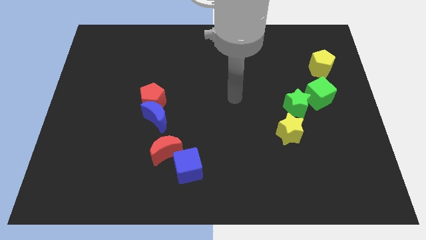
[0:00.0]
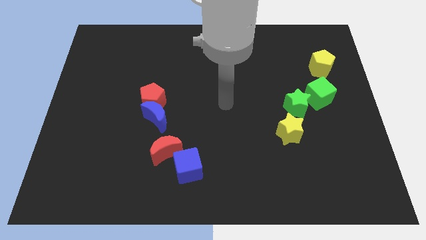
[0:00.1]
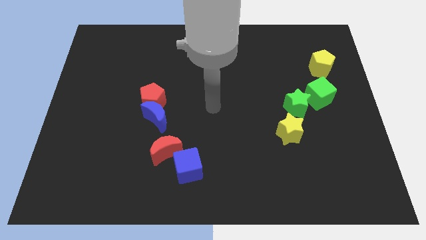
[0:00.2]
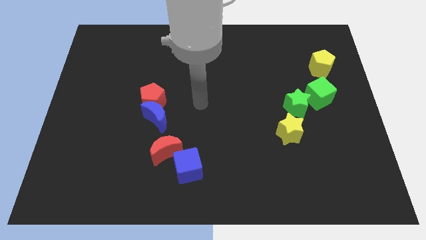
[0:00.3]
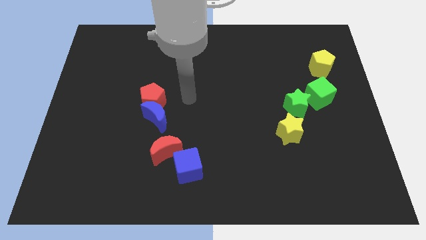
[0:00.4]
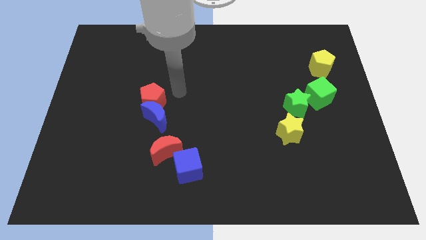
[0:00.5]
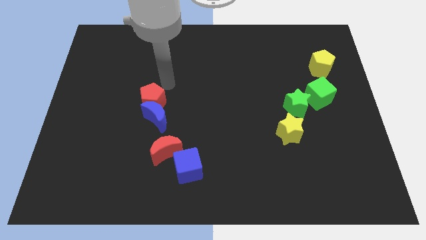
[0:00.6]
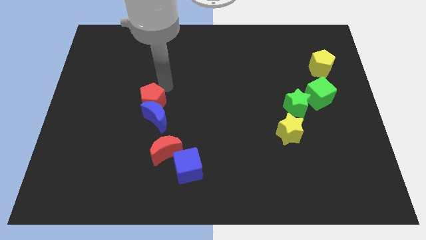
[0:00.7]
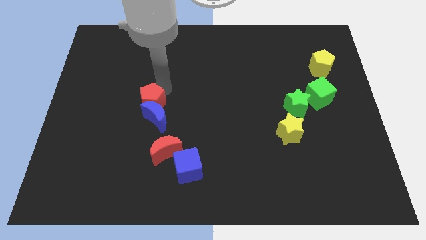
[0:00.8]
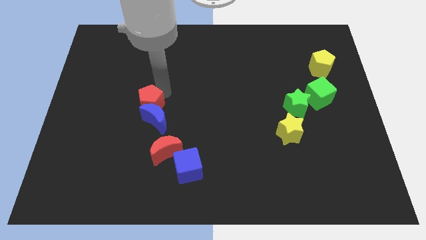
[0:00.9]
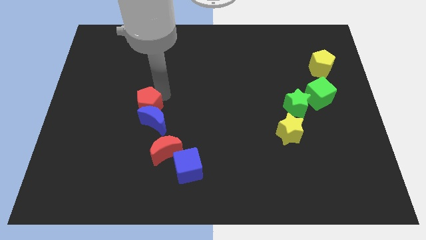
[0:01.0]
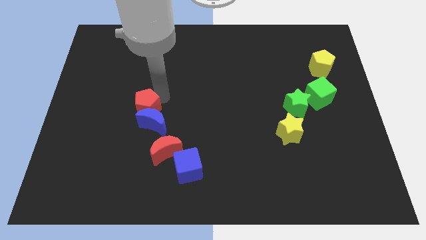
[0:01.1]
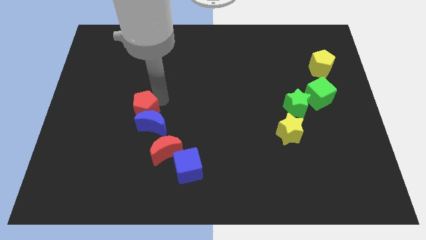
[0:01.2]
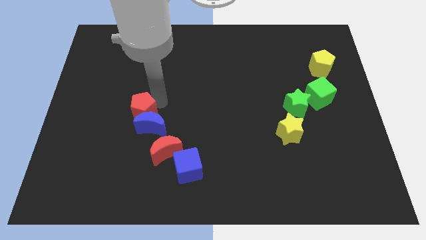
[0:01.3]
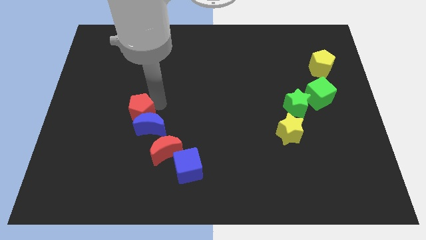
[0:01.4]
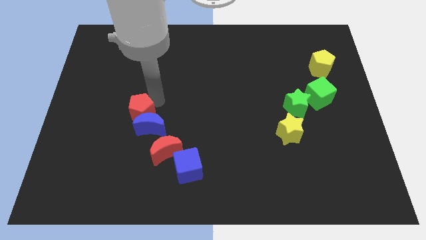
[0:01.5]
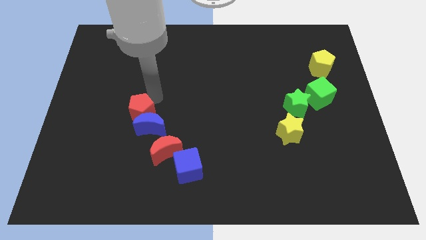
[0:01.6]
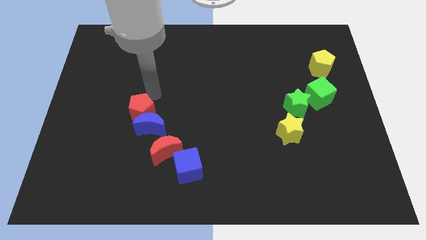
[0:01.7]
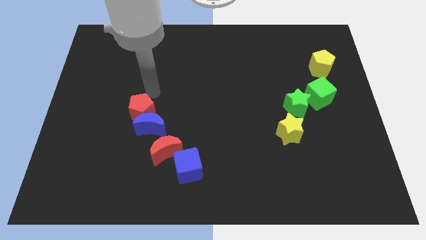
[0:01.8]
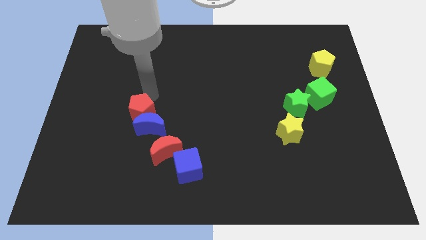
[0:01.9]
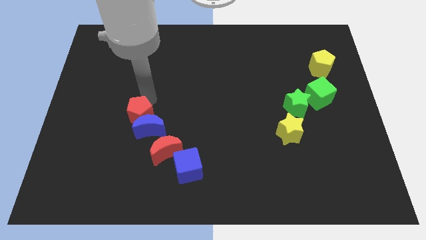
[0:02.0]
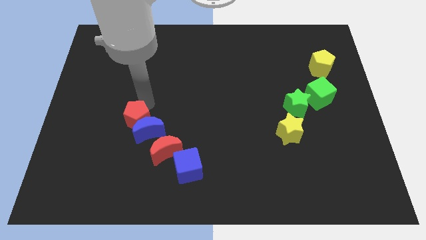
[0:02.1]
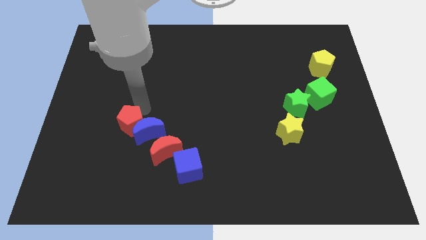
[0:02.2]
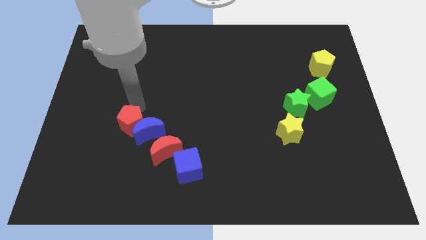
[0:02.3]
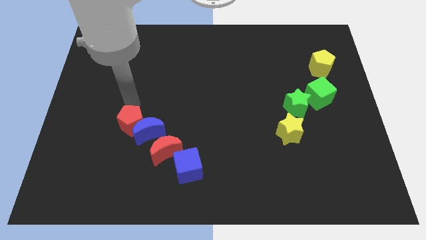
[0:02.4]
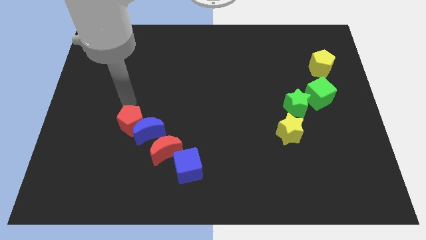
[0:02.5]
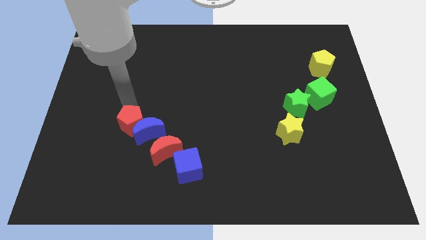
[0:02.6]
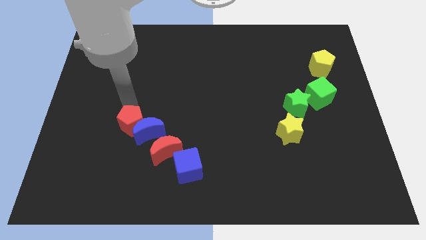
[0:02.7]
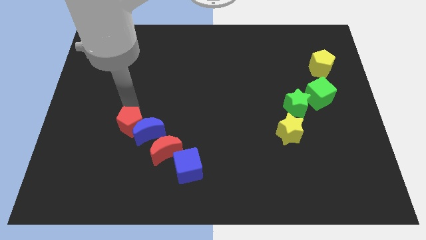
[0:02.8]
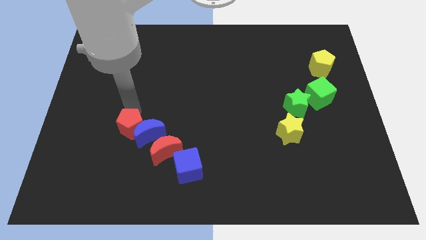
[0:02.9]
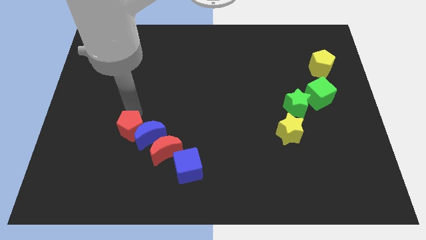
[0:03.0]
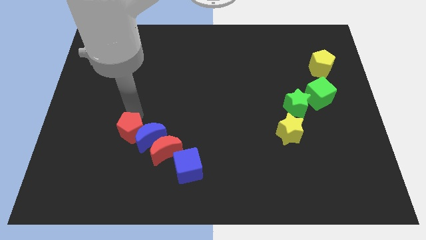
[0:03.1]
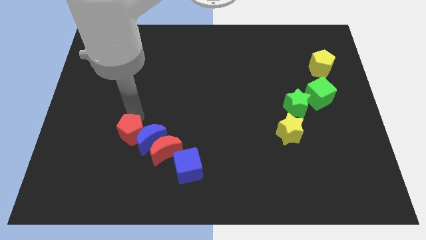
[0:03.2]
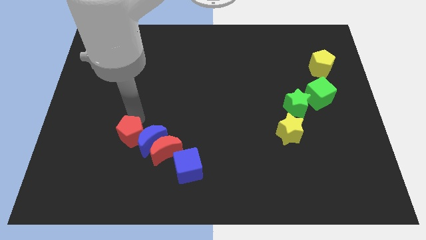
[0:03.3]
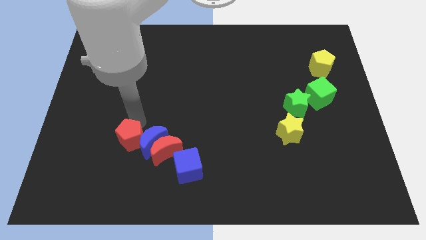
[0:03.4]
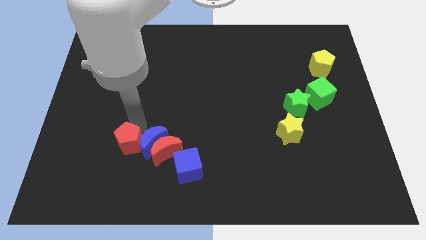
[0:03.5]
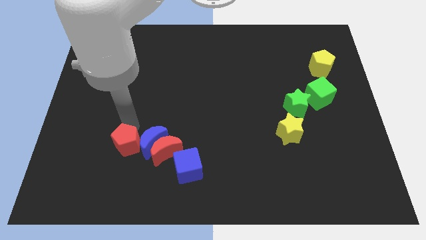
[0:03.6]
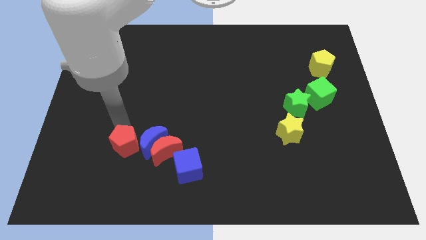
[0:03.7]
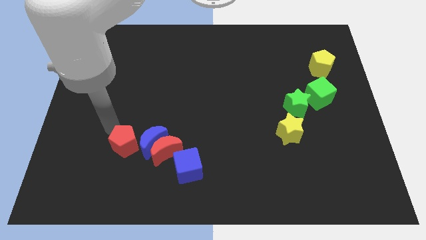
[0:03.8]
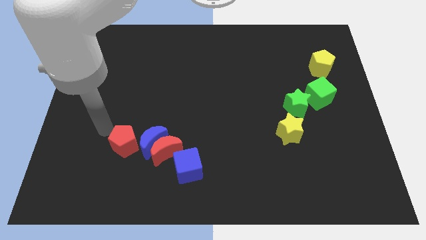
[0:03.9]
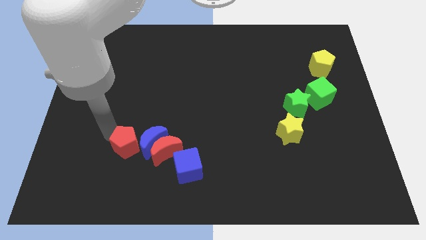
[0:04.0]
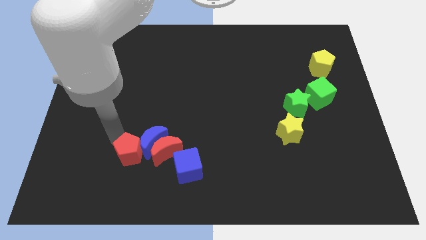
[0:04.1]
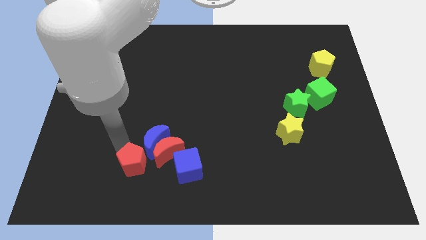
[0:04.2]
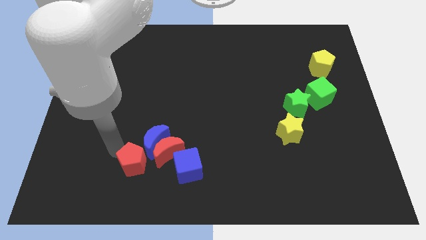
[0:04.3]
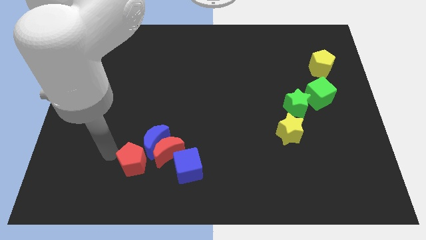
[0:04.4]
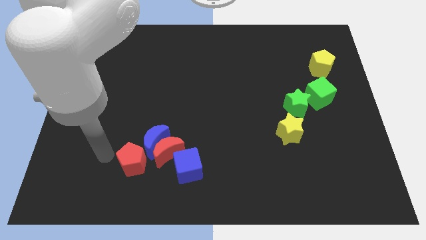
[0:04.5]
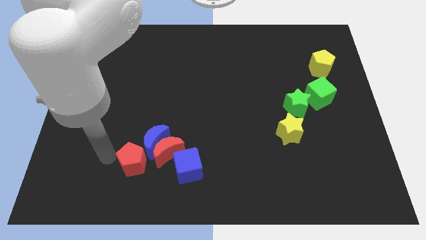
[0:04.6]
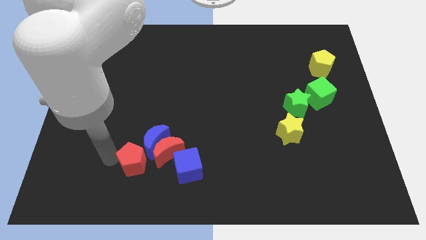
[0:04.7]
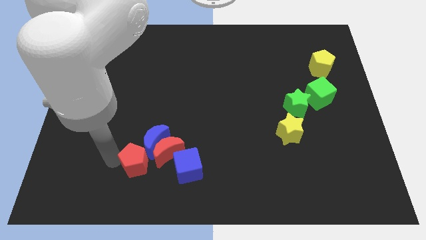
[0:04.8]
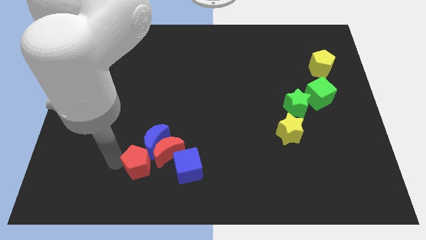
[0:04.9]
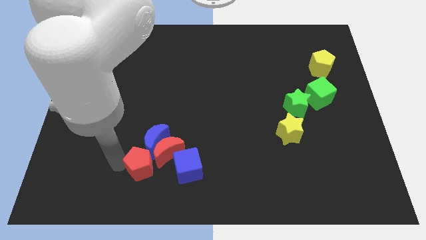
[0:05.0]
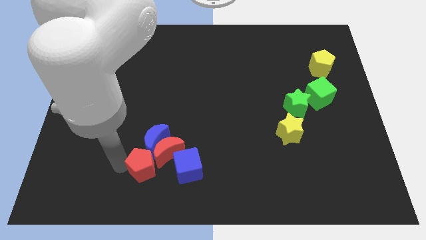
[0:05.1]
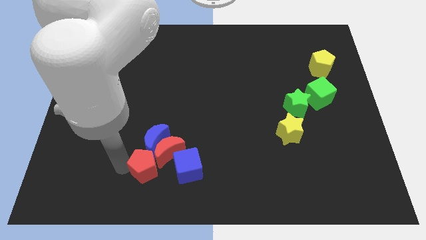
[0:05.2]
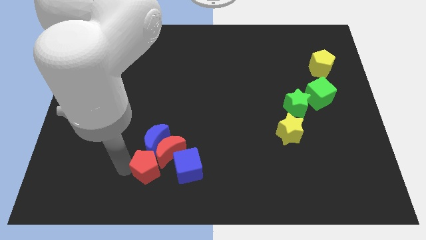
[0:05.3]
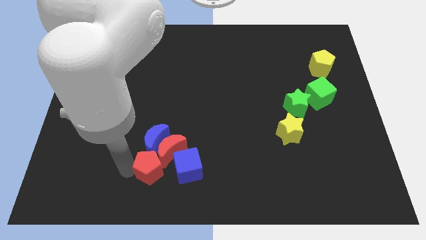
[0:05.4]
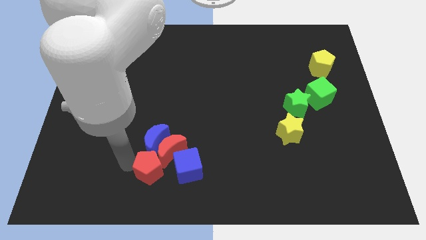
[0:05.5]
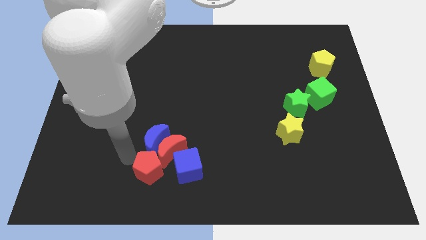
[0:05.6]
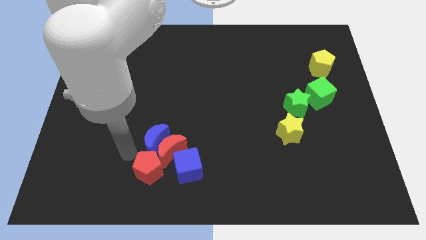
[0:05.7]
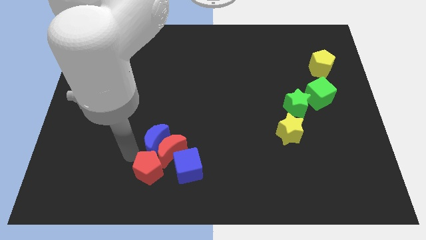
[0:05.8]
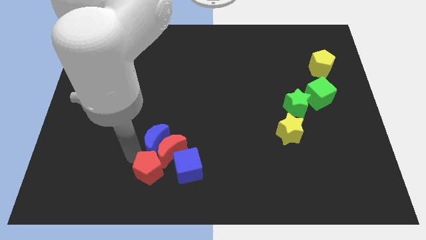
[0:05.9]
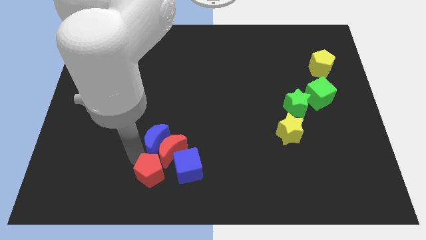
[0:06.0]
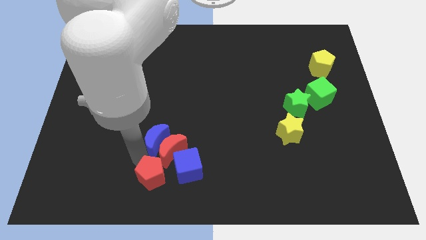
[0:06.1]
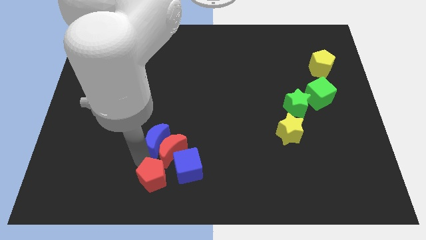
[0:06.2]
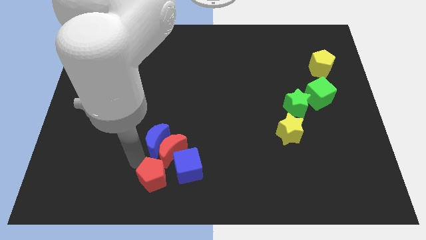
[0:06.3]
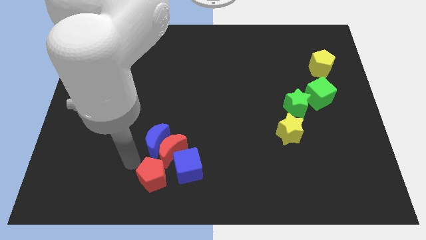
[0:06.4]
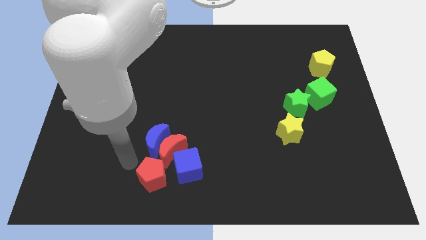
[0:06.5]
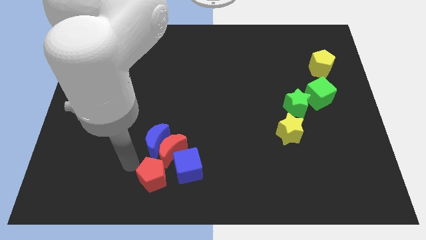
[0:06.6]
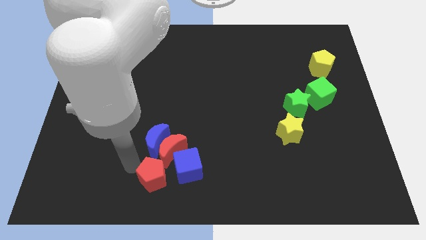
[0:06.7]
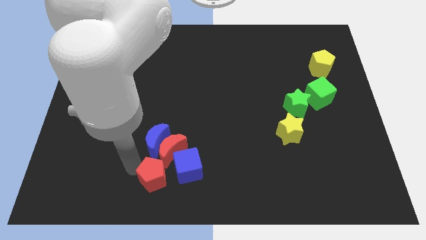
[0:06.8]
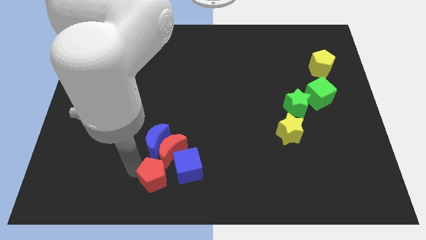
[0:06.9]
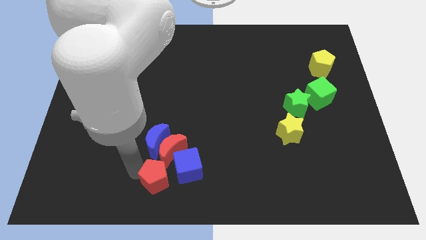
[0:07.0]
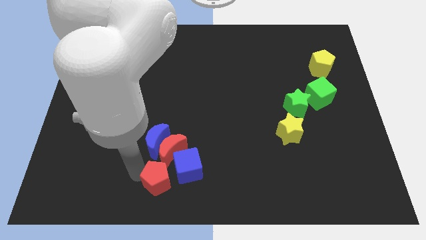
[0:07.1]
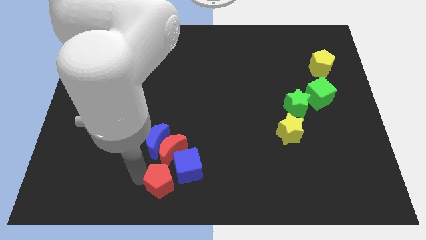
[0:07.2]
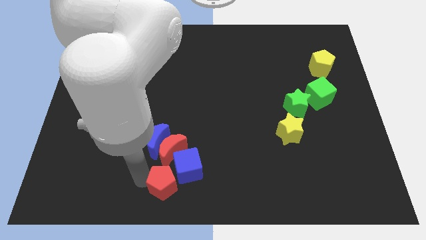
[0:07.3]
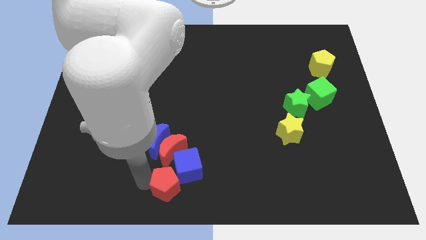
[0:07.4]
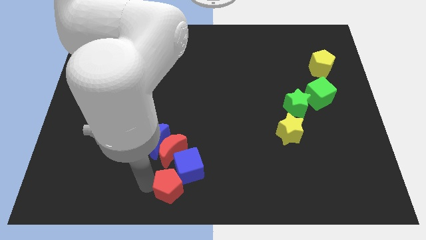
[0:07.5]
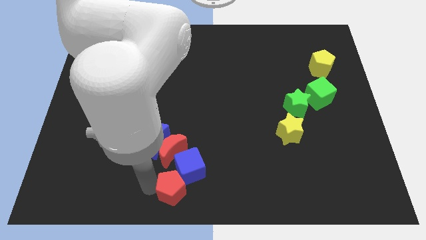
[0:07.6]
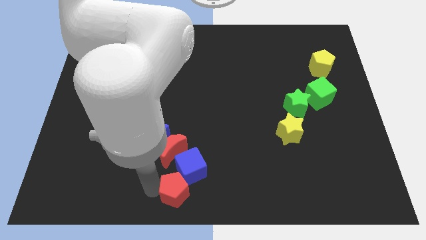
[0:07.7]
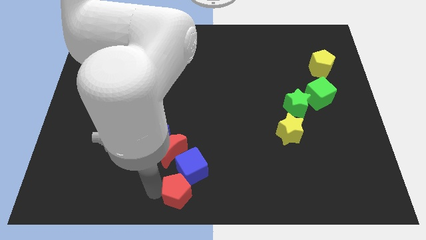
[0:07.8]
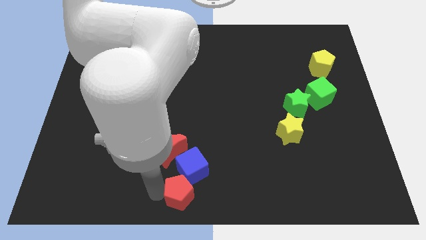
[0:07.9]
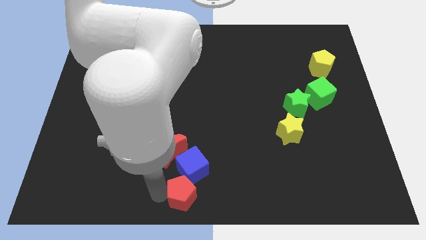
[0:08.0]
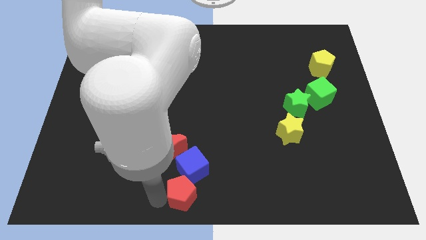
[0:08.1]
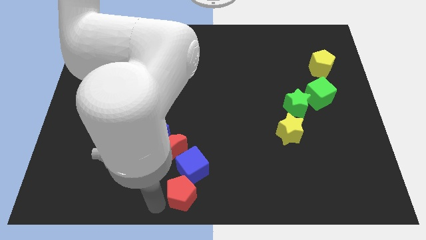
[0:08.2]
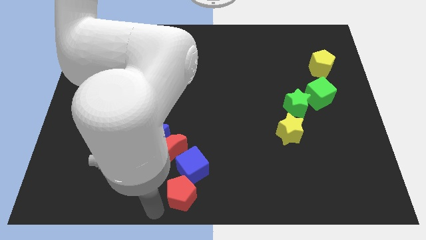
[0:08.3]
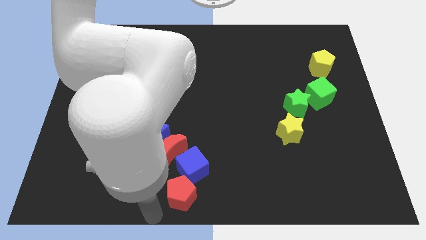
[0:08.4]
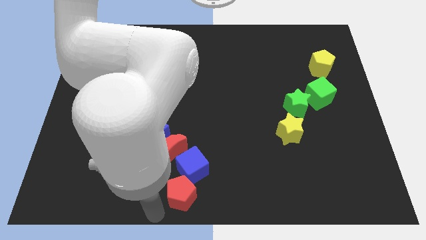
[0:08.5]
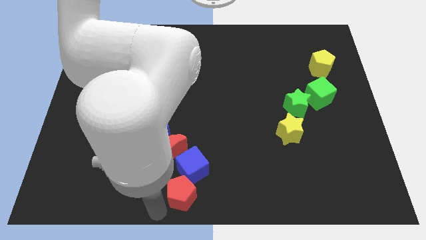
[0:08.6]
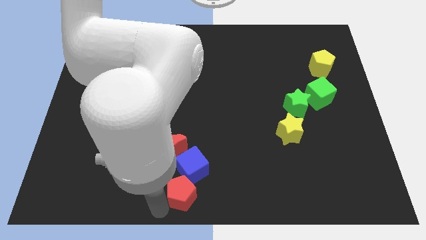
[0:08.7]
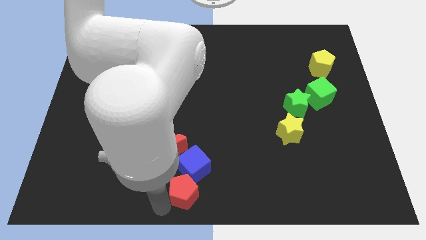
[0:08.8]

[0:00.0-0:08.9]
push the red pentagon to the bottom right of the red moon
